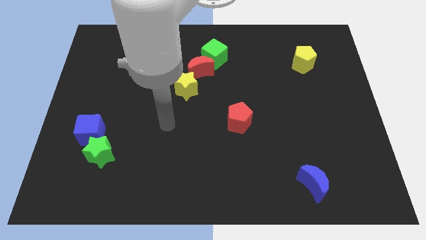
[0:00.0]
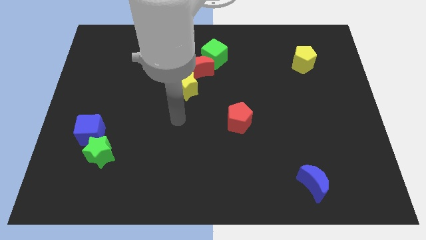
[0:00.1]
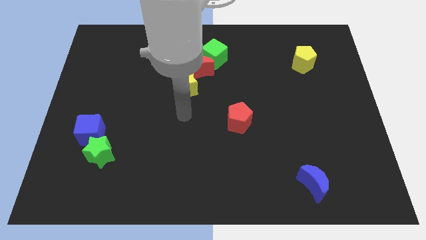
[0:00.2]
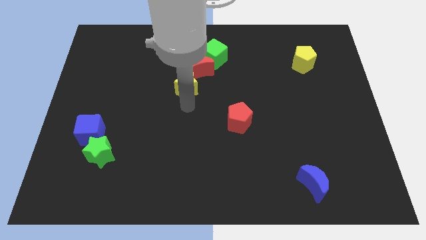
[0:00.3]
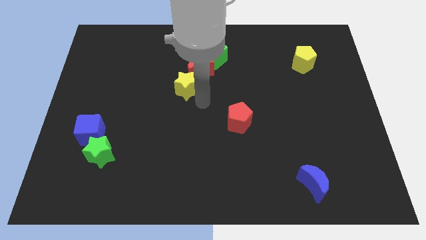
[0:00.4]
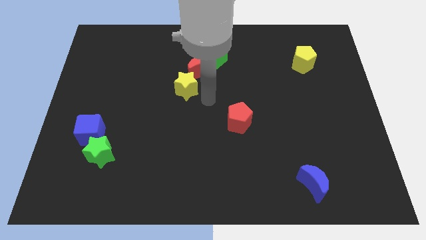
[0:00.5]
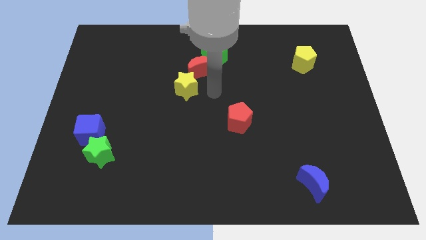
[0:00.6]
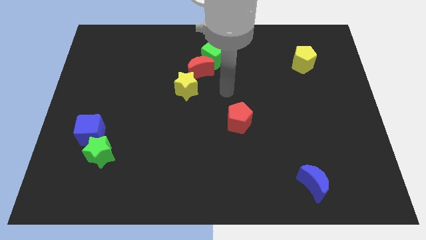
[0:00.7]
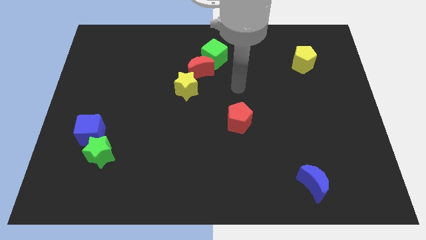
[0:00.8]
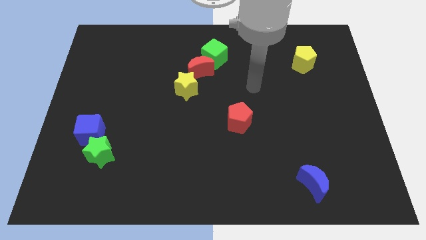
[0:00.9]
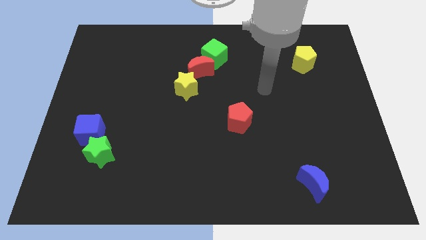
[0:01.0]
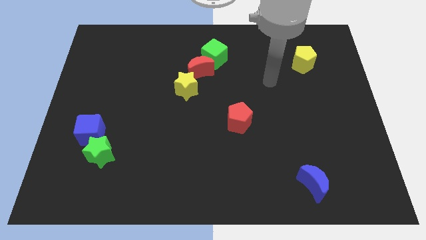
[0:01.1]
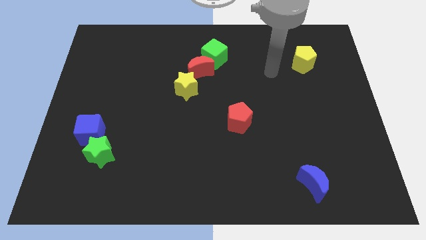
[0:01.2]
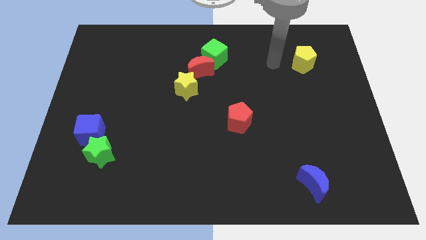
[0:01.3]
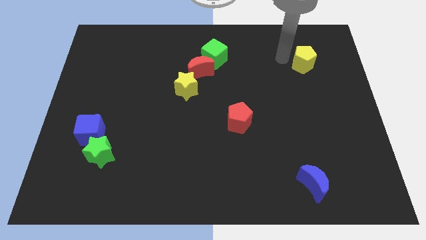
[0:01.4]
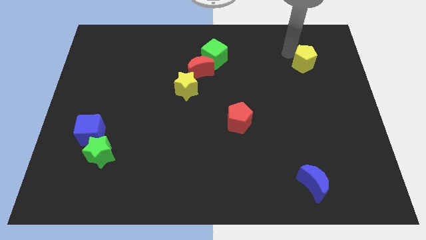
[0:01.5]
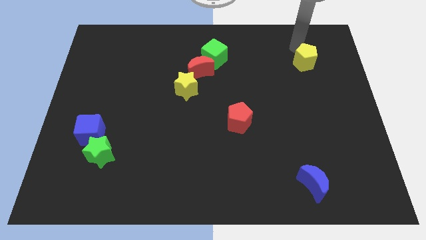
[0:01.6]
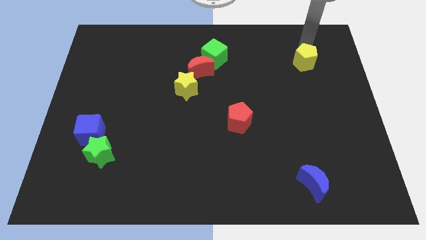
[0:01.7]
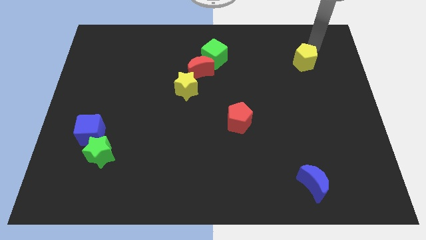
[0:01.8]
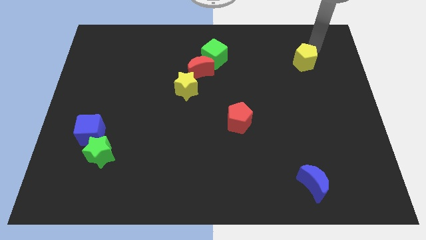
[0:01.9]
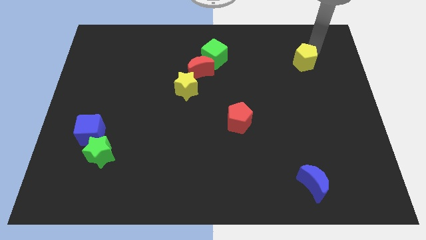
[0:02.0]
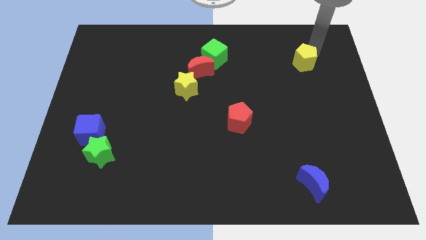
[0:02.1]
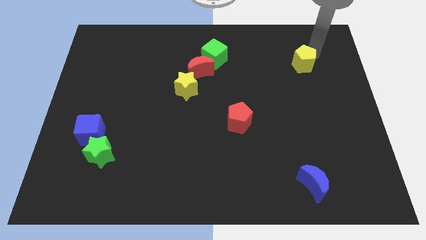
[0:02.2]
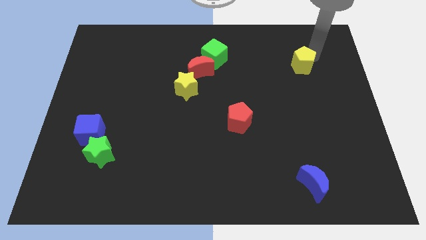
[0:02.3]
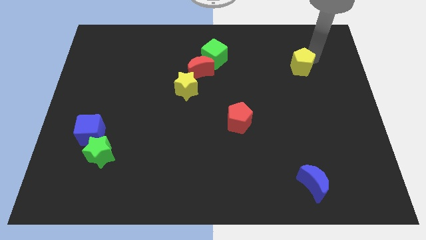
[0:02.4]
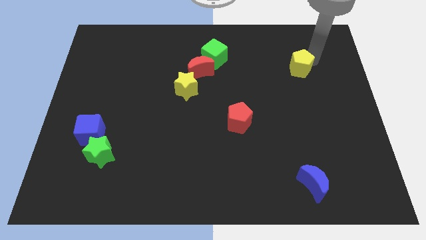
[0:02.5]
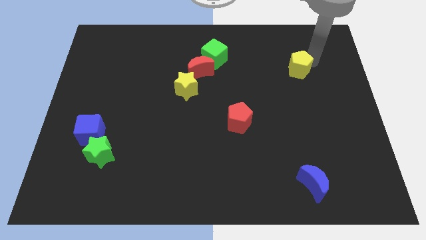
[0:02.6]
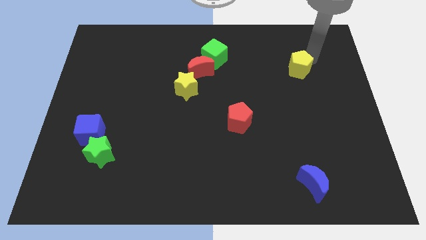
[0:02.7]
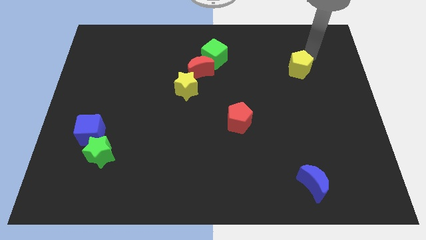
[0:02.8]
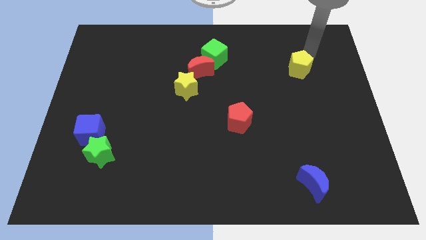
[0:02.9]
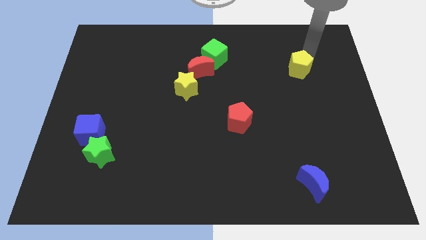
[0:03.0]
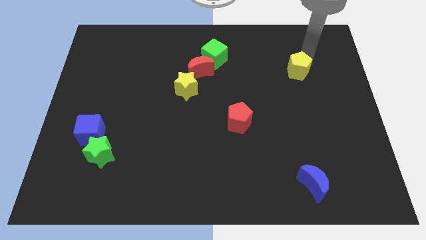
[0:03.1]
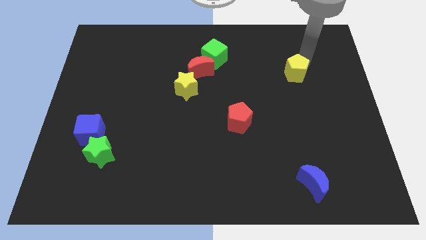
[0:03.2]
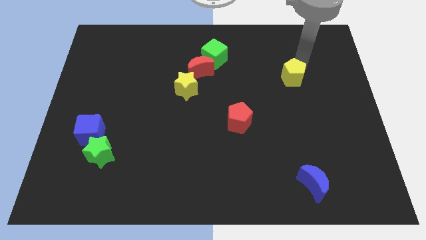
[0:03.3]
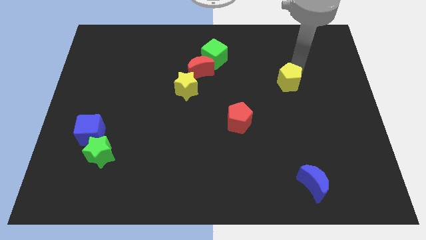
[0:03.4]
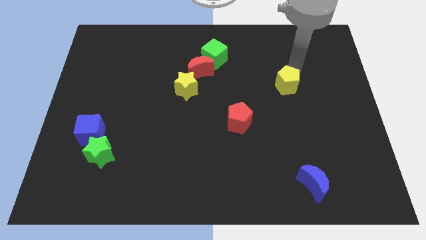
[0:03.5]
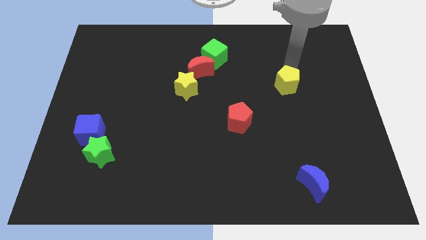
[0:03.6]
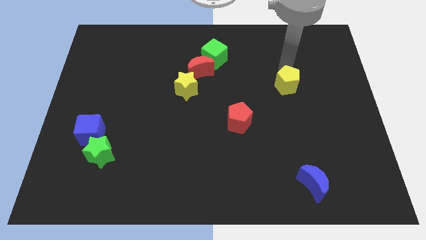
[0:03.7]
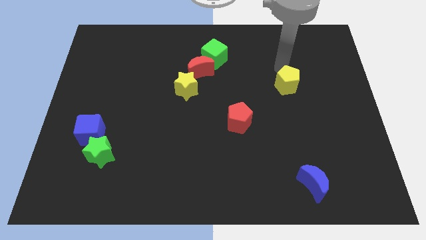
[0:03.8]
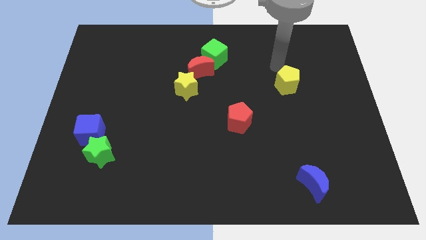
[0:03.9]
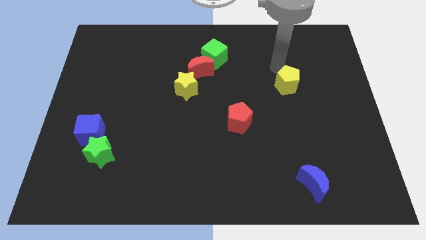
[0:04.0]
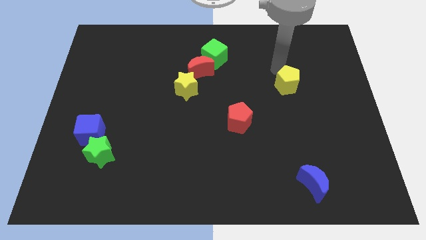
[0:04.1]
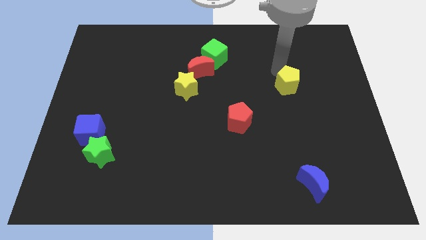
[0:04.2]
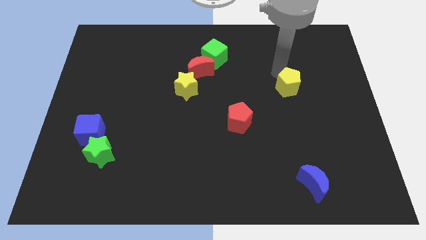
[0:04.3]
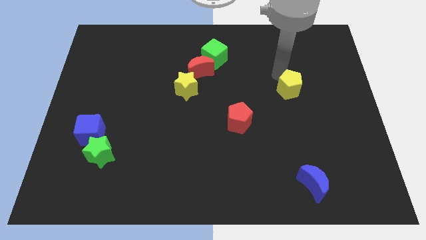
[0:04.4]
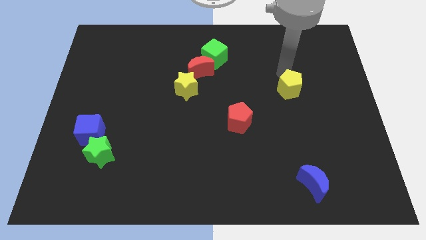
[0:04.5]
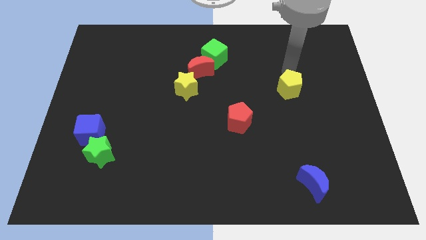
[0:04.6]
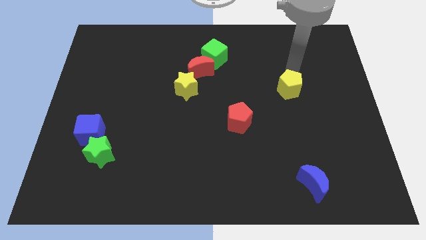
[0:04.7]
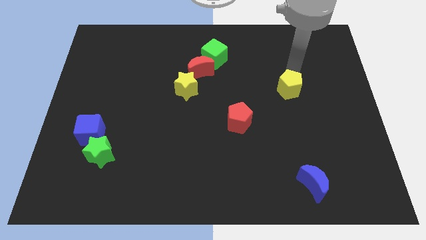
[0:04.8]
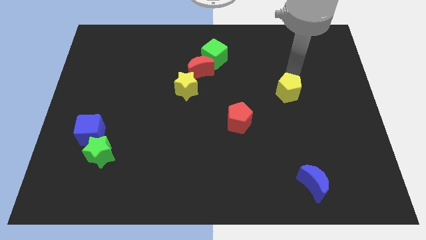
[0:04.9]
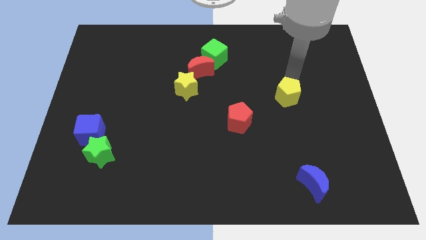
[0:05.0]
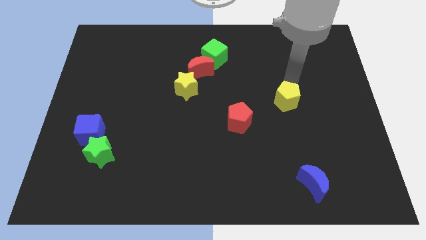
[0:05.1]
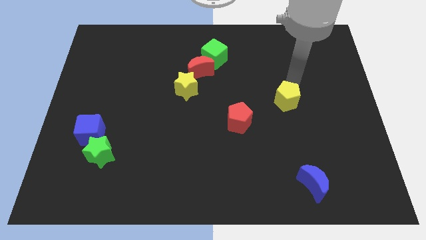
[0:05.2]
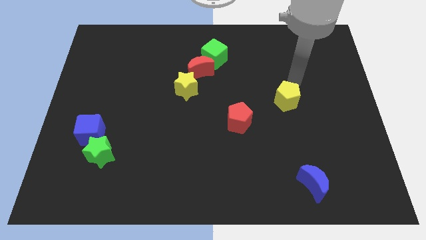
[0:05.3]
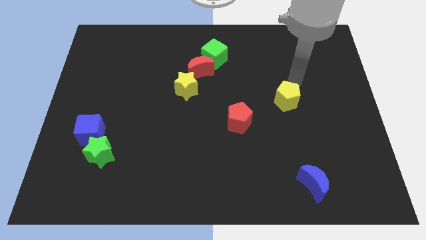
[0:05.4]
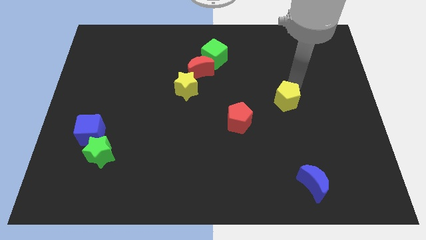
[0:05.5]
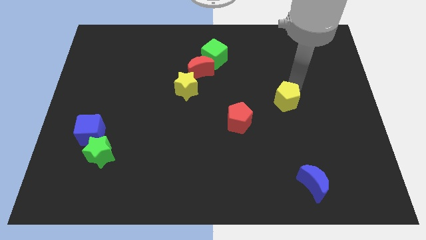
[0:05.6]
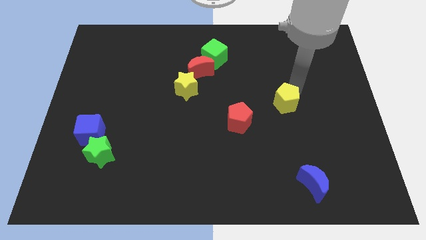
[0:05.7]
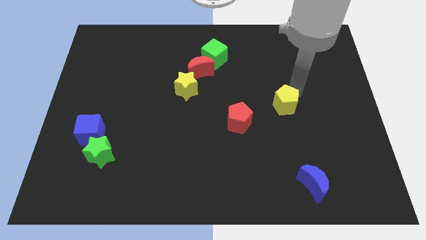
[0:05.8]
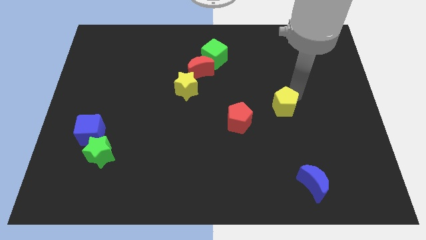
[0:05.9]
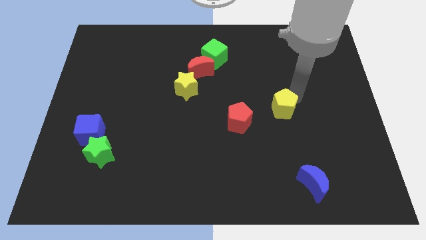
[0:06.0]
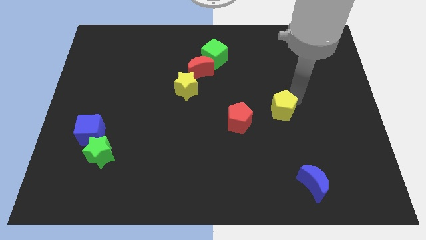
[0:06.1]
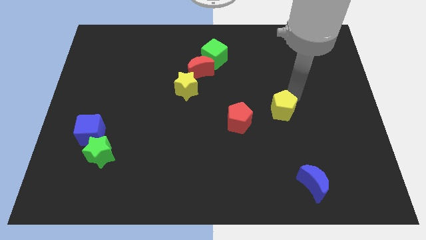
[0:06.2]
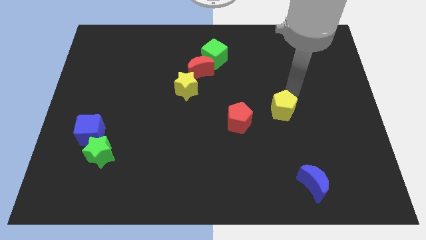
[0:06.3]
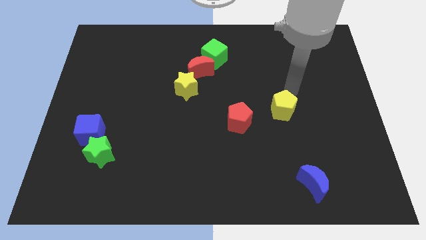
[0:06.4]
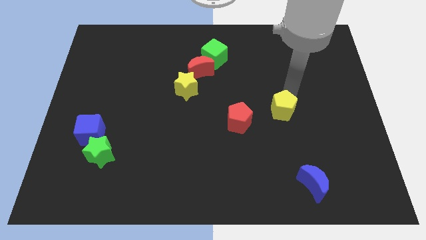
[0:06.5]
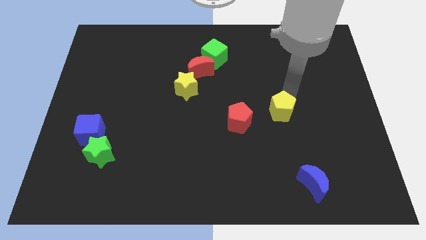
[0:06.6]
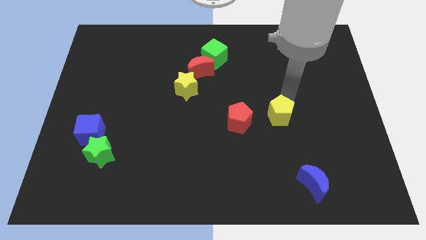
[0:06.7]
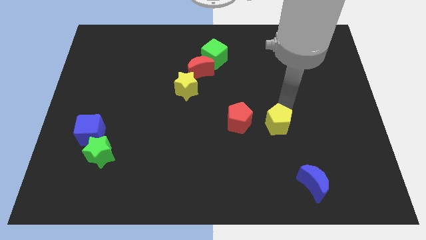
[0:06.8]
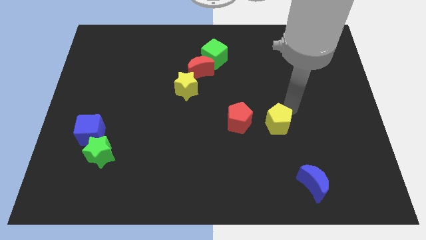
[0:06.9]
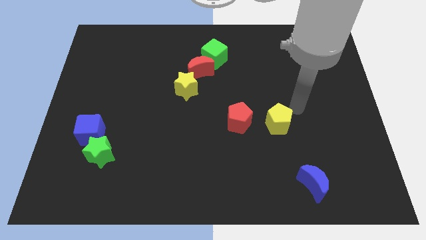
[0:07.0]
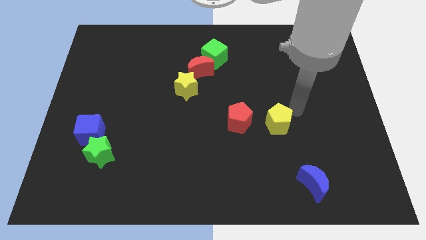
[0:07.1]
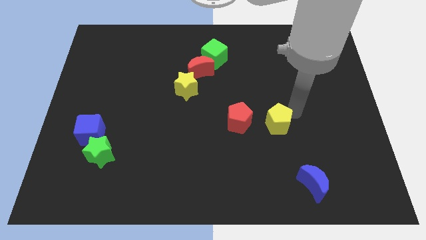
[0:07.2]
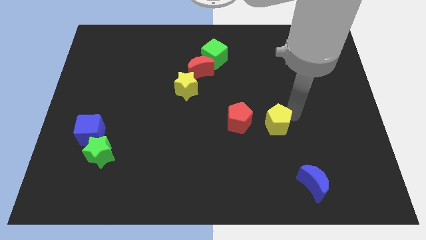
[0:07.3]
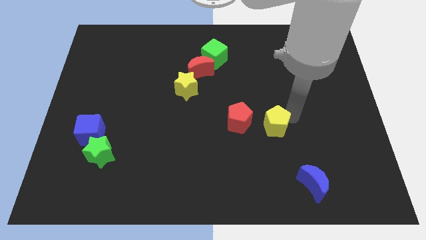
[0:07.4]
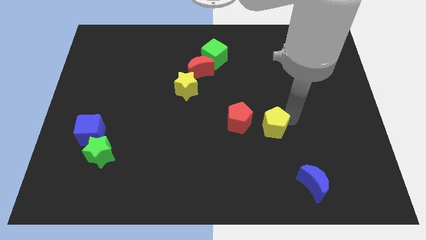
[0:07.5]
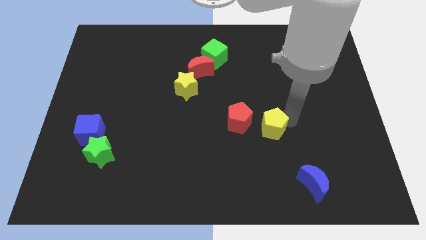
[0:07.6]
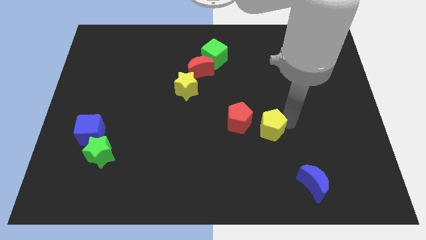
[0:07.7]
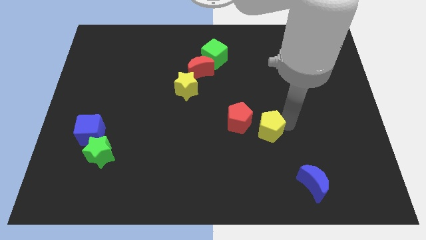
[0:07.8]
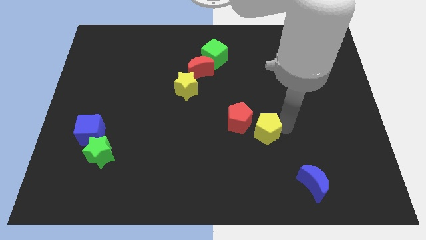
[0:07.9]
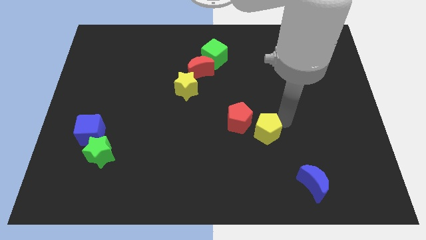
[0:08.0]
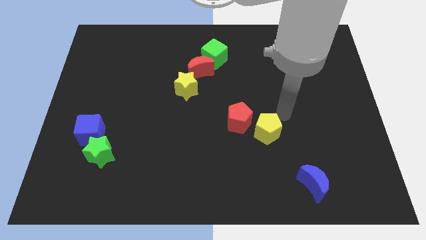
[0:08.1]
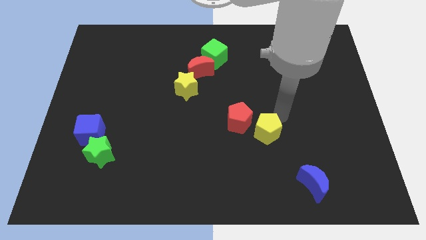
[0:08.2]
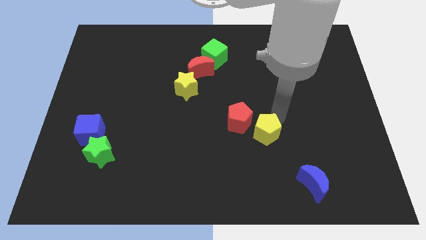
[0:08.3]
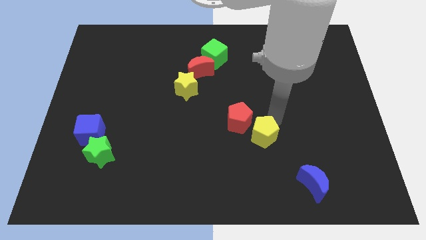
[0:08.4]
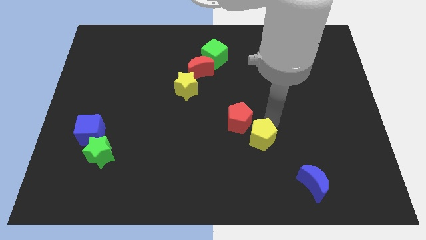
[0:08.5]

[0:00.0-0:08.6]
slide the yellow pentagon below the red pentagon
